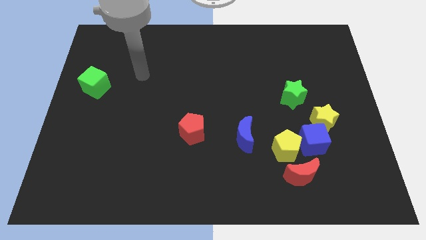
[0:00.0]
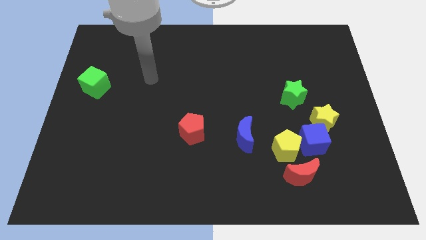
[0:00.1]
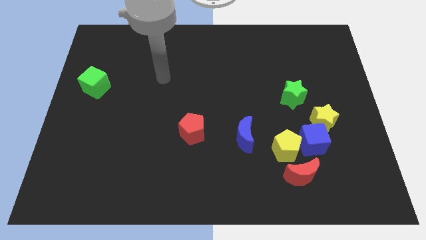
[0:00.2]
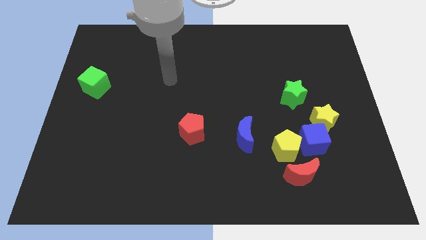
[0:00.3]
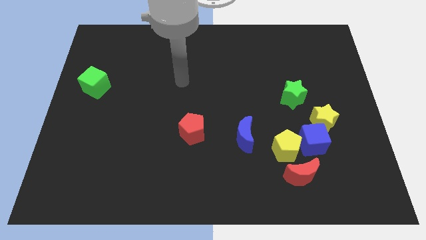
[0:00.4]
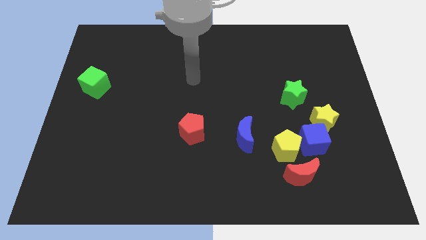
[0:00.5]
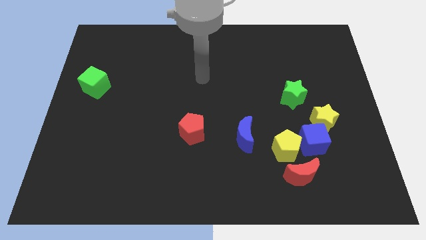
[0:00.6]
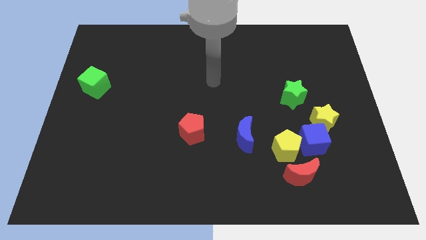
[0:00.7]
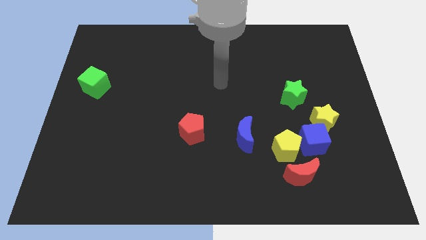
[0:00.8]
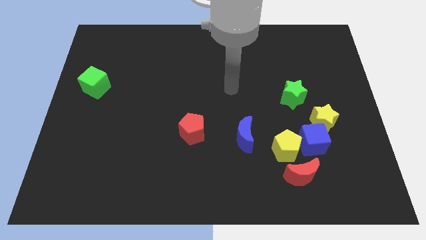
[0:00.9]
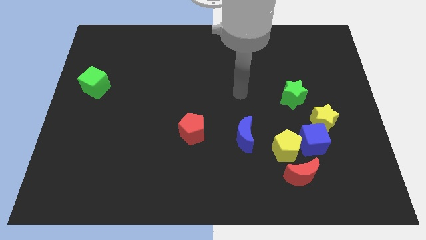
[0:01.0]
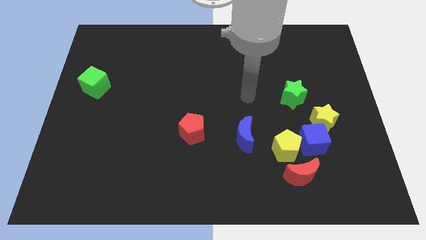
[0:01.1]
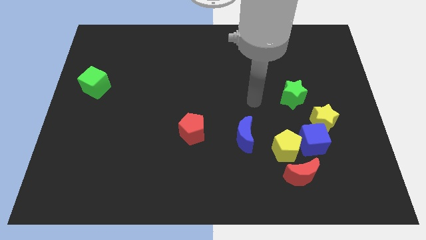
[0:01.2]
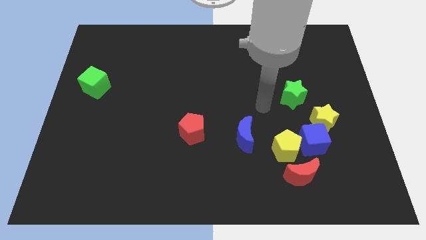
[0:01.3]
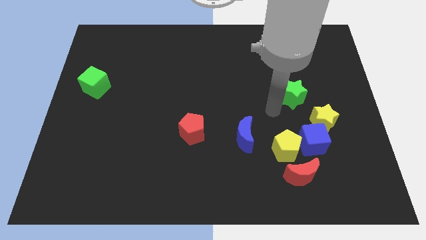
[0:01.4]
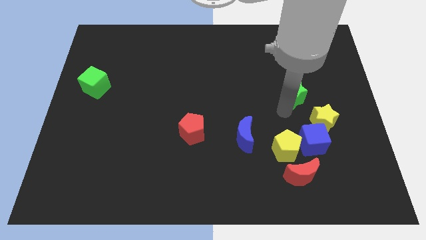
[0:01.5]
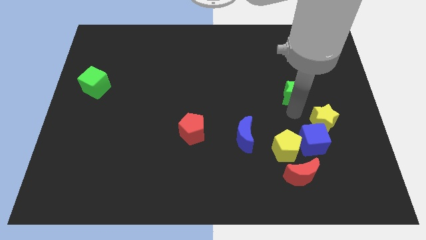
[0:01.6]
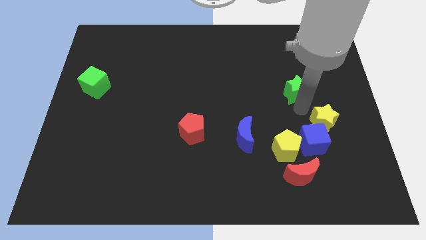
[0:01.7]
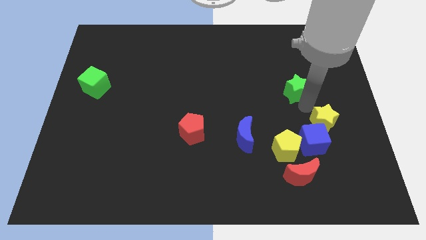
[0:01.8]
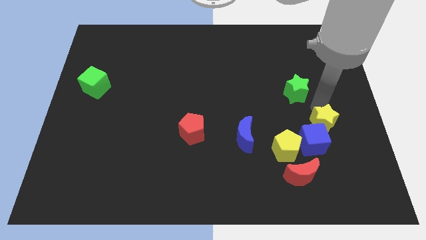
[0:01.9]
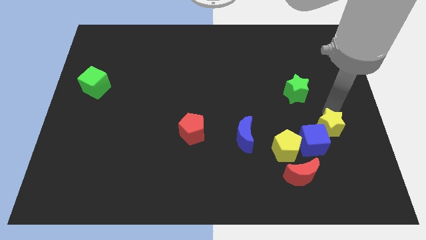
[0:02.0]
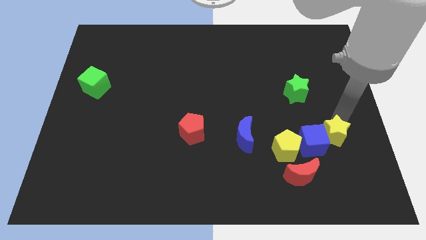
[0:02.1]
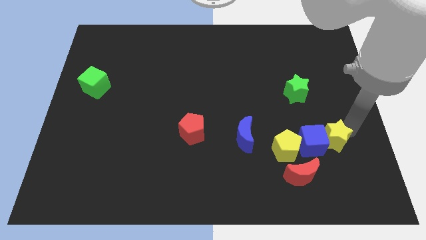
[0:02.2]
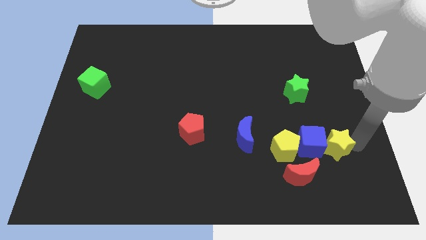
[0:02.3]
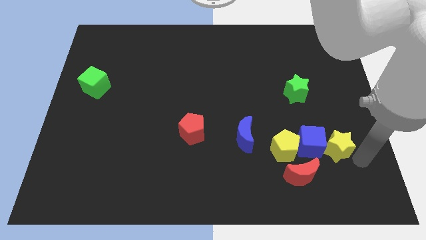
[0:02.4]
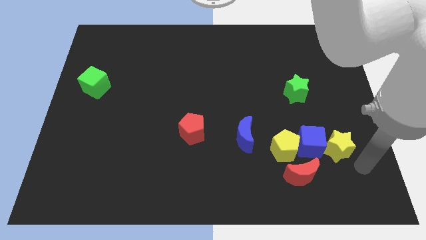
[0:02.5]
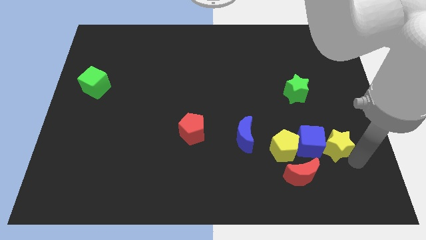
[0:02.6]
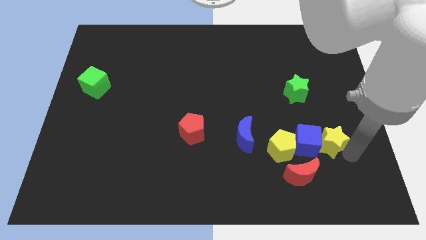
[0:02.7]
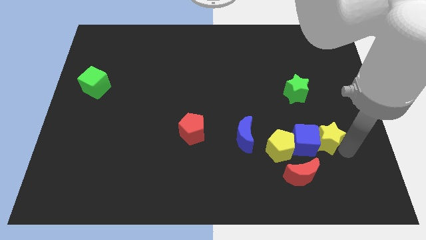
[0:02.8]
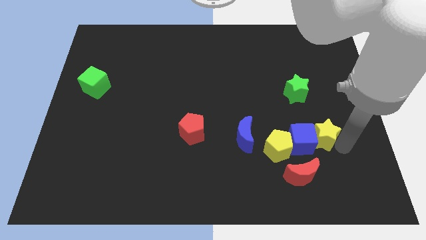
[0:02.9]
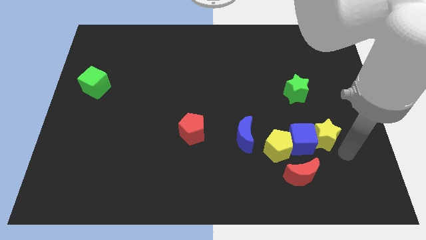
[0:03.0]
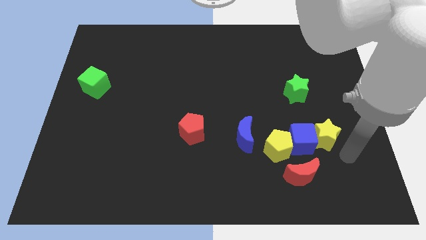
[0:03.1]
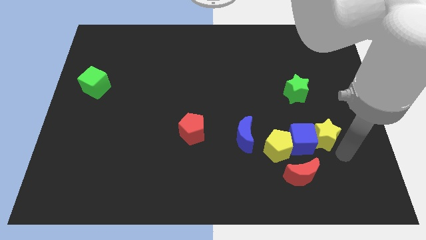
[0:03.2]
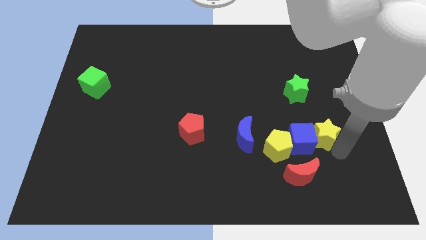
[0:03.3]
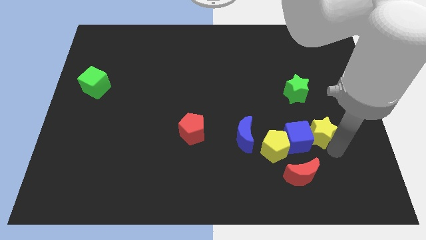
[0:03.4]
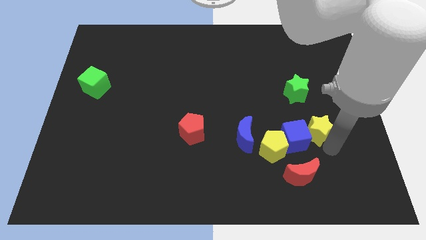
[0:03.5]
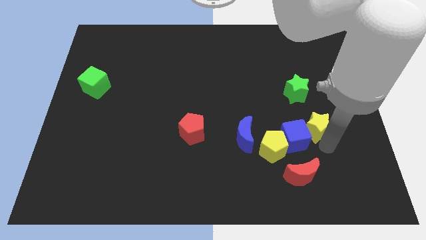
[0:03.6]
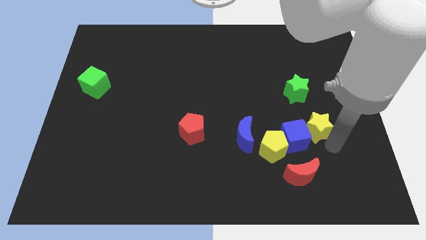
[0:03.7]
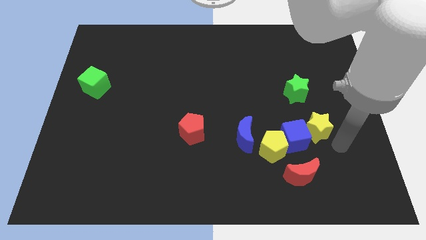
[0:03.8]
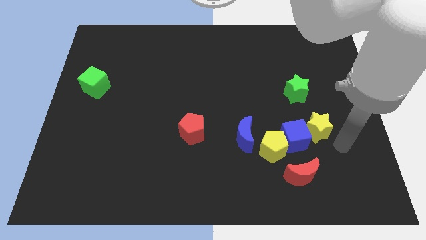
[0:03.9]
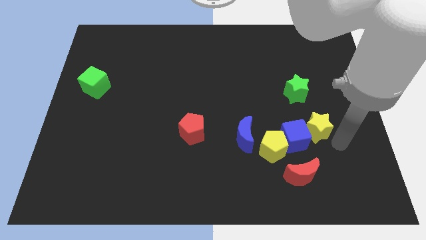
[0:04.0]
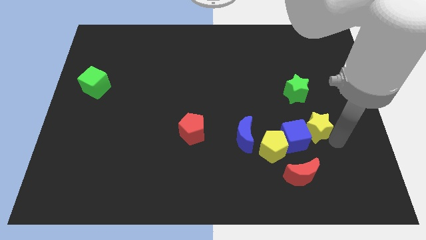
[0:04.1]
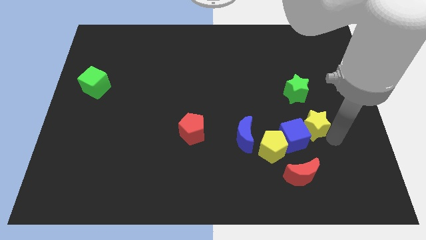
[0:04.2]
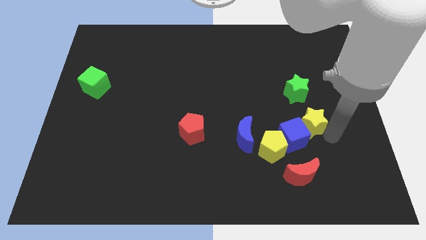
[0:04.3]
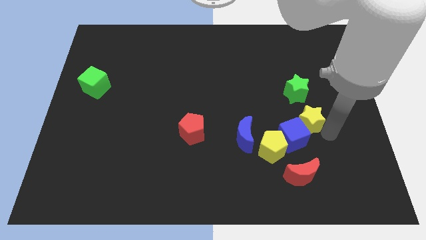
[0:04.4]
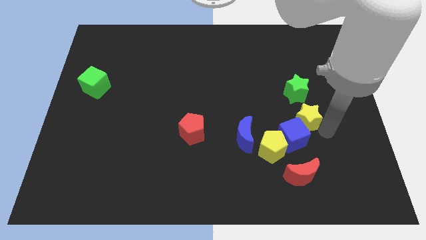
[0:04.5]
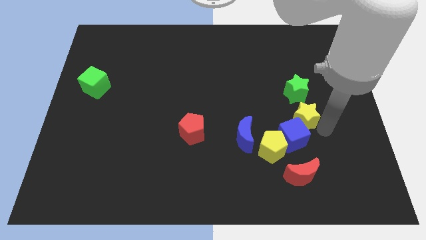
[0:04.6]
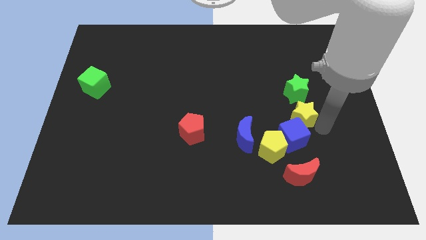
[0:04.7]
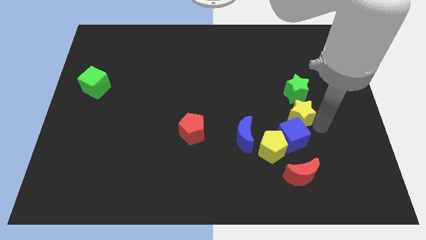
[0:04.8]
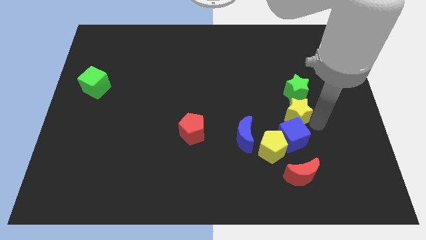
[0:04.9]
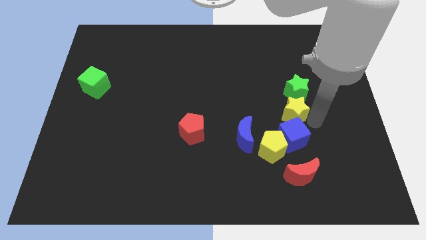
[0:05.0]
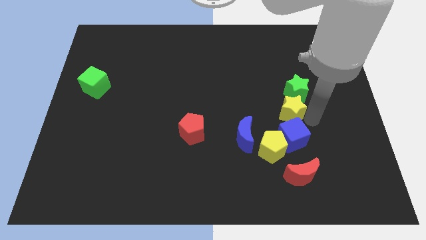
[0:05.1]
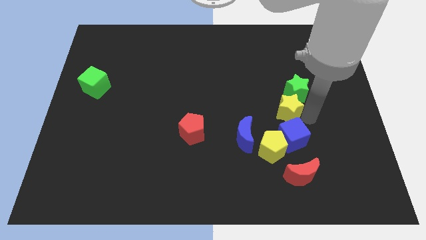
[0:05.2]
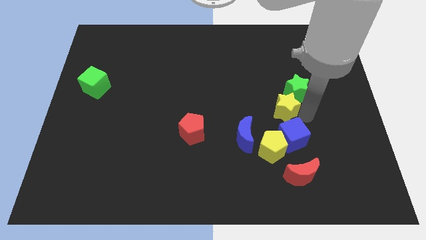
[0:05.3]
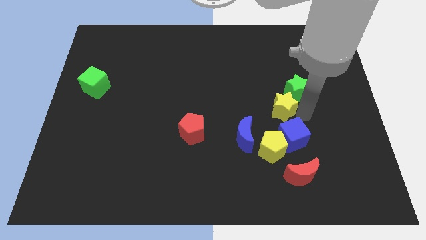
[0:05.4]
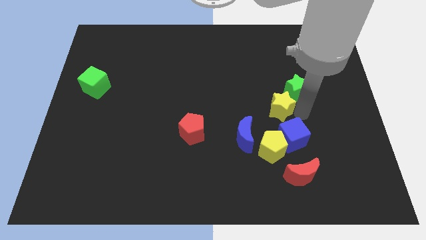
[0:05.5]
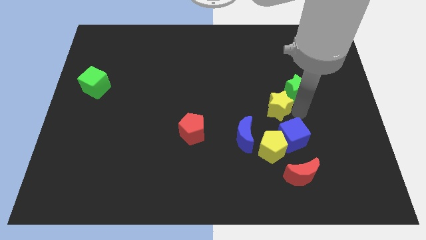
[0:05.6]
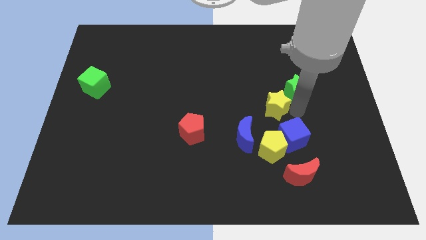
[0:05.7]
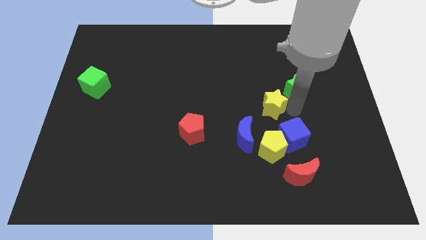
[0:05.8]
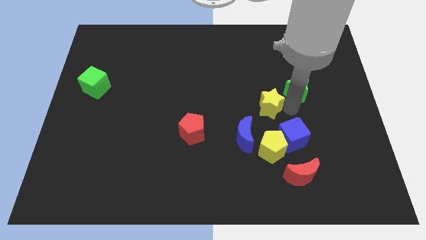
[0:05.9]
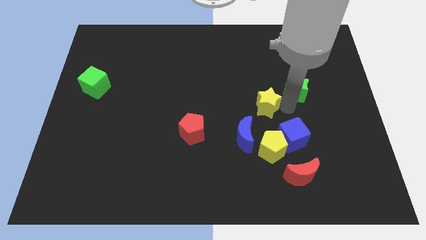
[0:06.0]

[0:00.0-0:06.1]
push the yellow star to the center of the board
